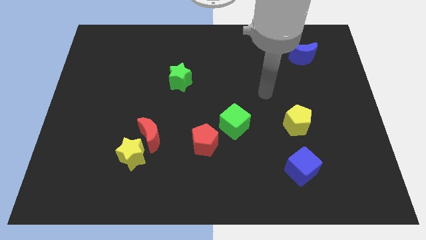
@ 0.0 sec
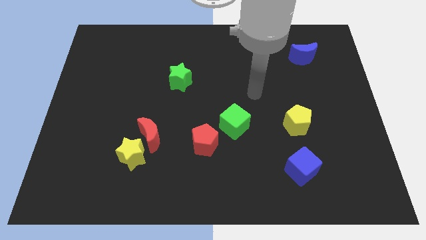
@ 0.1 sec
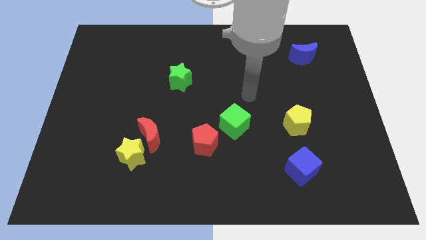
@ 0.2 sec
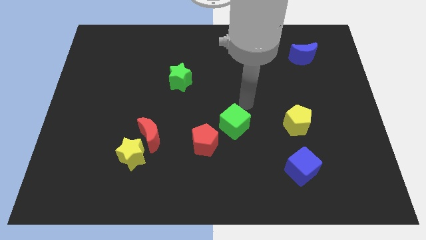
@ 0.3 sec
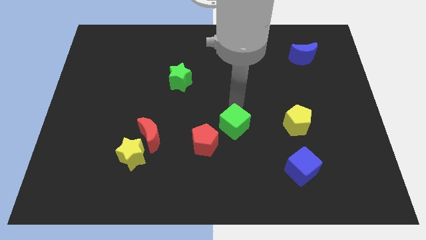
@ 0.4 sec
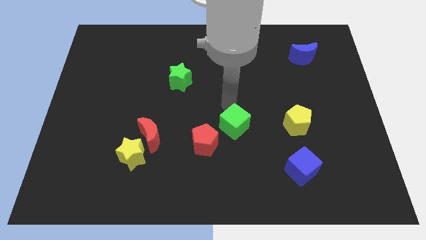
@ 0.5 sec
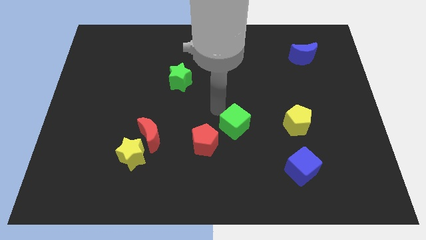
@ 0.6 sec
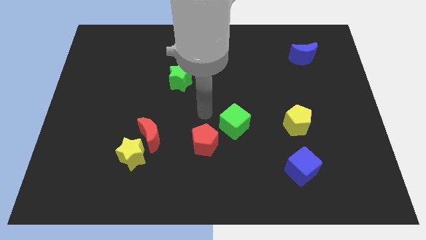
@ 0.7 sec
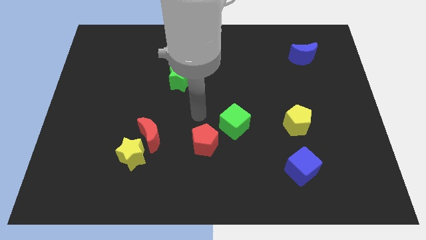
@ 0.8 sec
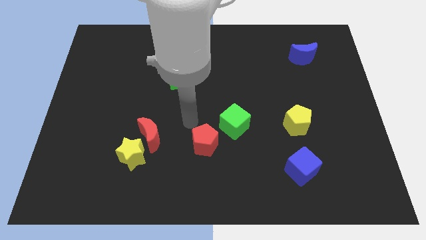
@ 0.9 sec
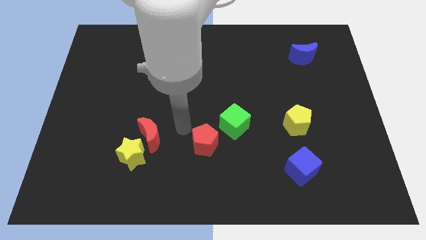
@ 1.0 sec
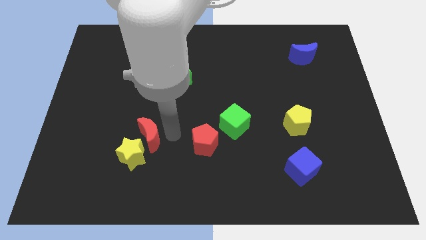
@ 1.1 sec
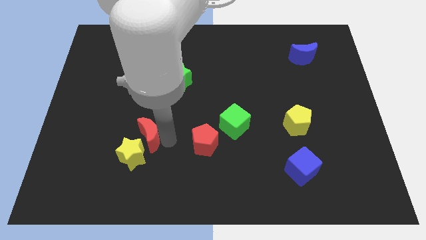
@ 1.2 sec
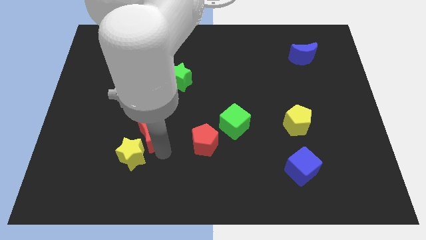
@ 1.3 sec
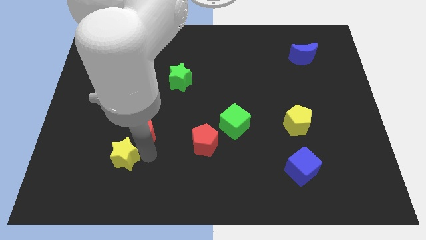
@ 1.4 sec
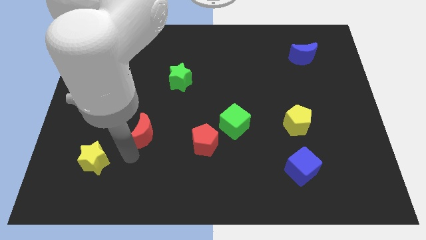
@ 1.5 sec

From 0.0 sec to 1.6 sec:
separate the red moon from the yellow star

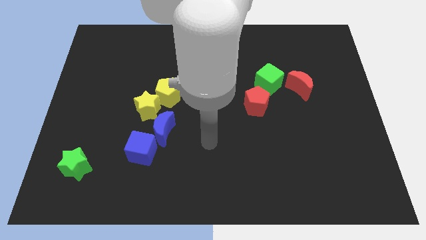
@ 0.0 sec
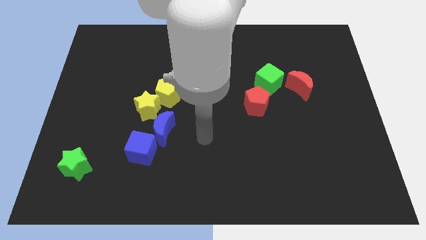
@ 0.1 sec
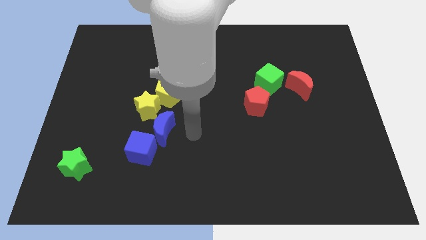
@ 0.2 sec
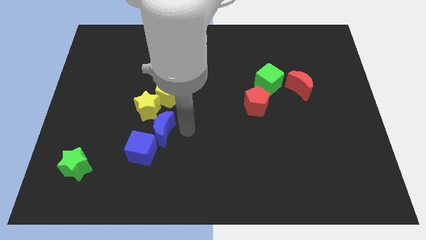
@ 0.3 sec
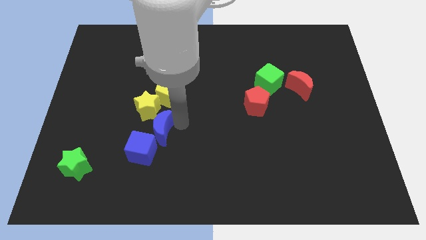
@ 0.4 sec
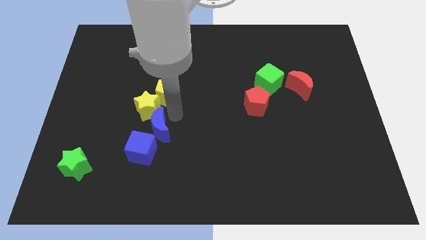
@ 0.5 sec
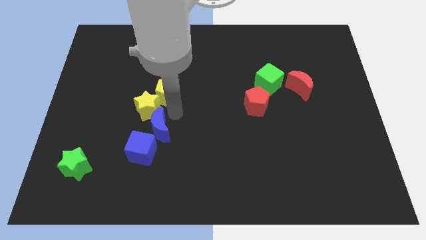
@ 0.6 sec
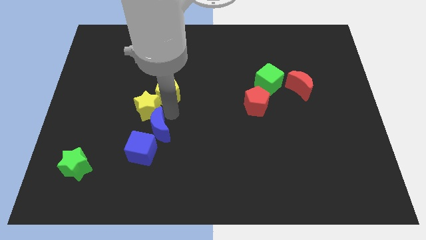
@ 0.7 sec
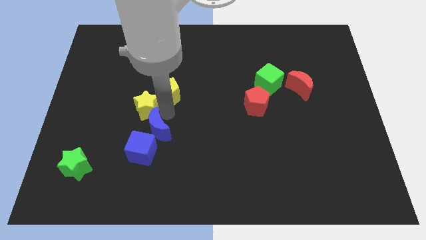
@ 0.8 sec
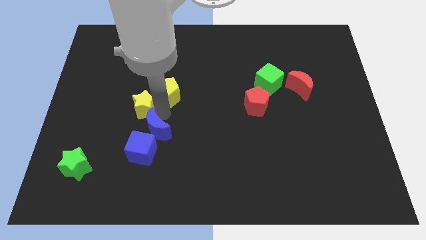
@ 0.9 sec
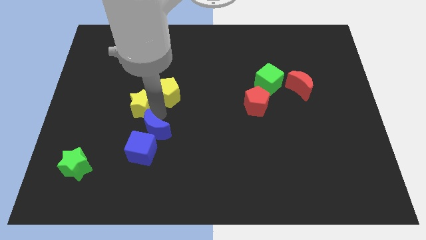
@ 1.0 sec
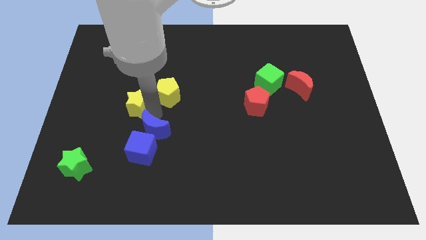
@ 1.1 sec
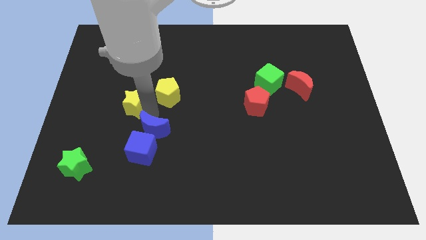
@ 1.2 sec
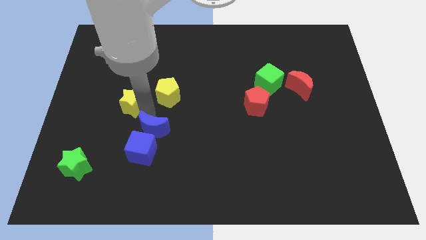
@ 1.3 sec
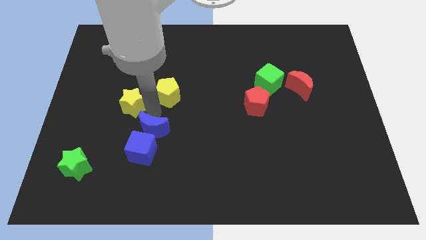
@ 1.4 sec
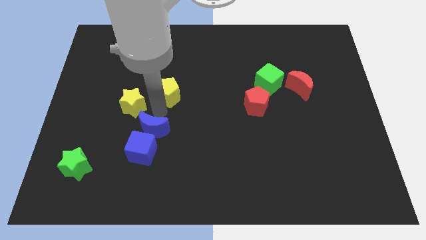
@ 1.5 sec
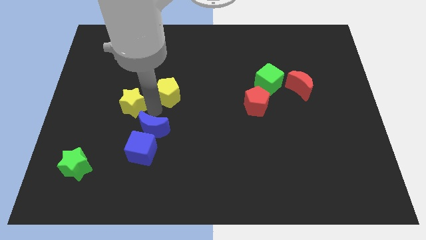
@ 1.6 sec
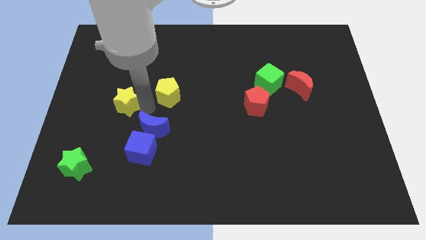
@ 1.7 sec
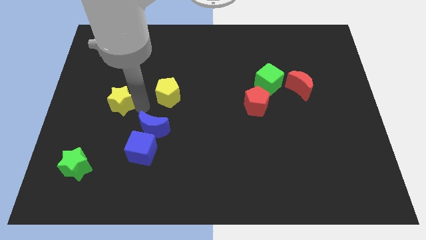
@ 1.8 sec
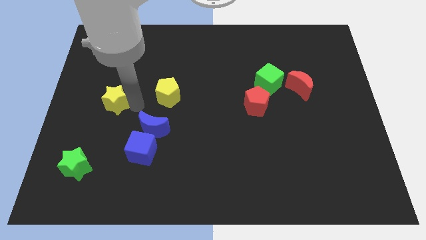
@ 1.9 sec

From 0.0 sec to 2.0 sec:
pull the yellow star apart from the yellow pentagon and blue moon

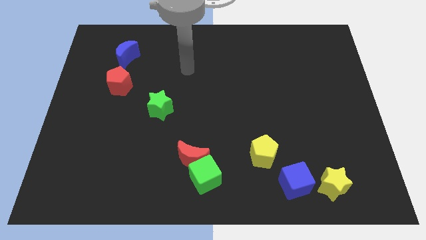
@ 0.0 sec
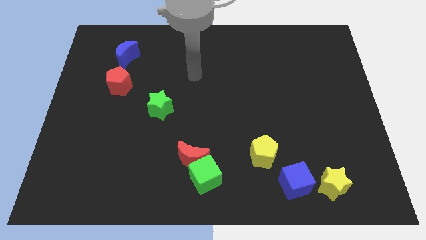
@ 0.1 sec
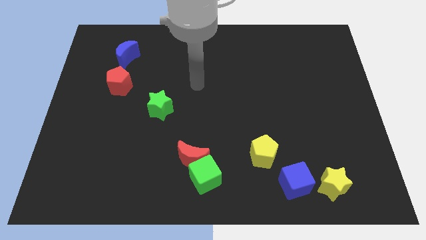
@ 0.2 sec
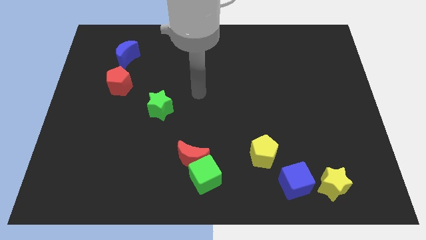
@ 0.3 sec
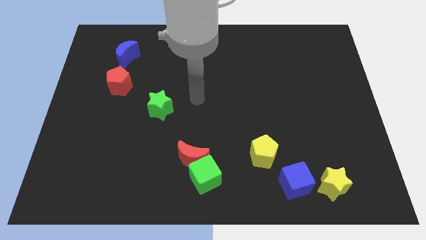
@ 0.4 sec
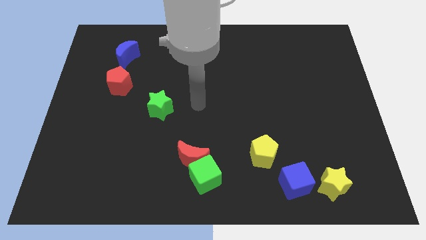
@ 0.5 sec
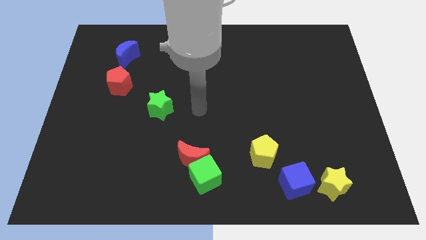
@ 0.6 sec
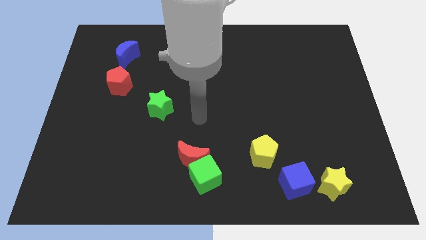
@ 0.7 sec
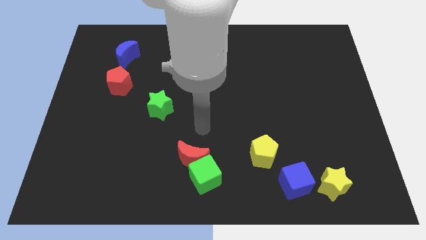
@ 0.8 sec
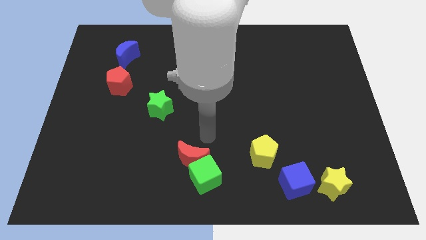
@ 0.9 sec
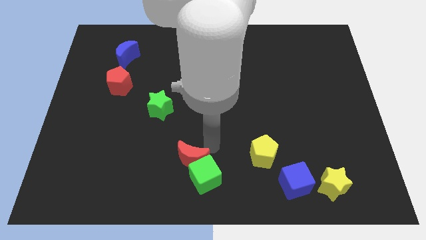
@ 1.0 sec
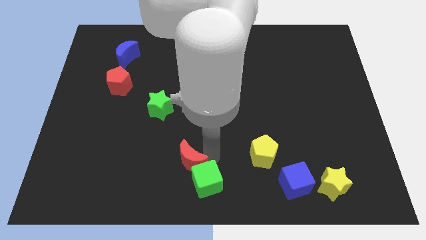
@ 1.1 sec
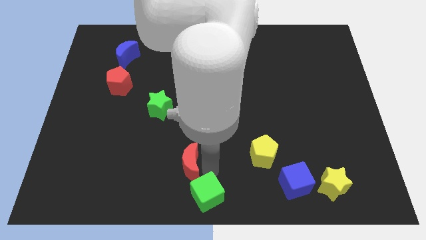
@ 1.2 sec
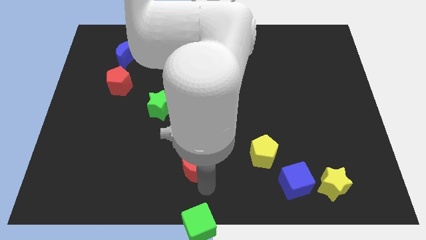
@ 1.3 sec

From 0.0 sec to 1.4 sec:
move the red moon away from the green cube

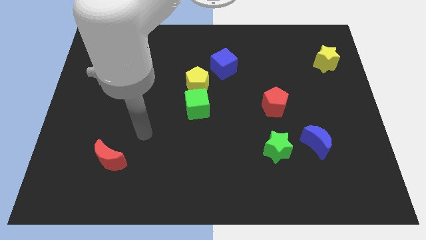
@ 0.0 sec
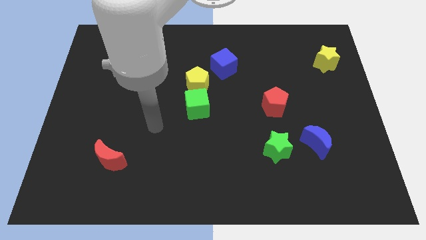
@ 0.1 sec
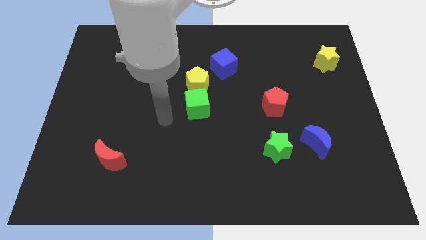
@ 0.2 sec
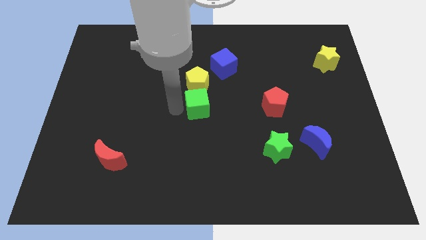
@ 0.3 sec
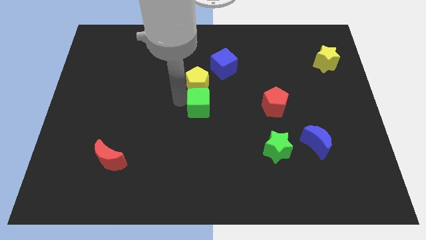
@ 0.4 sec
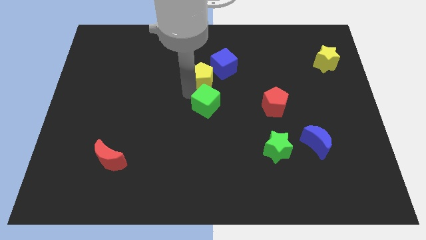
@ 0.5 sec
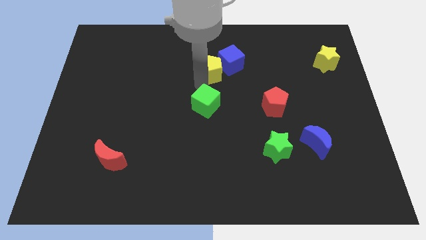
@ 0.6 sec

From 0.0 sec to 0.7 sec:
pull the green cube apart from the yellow pentagon

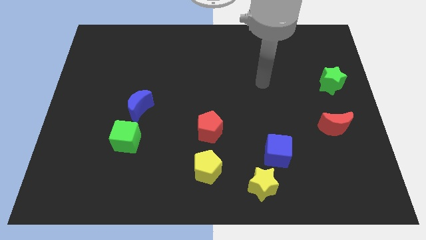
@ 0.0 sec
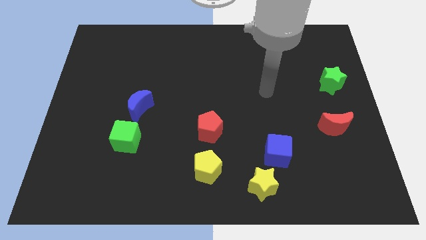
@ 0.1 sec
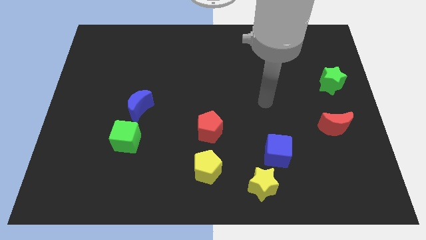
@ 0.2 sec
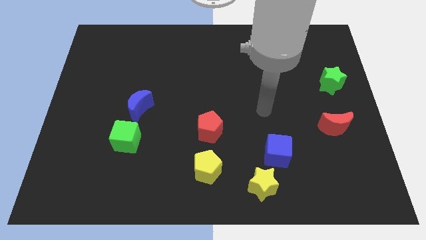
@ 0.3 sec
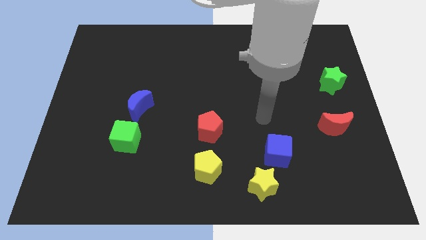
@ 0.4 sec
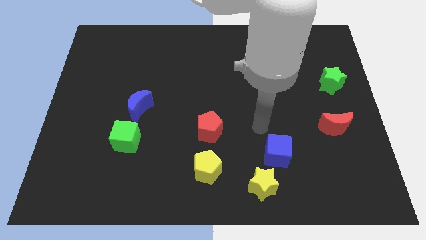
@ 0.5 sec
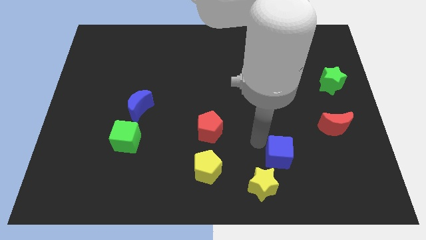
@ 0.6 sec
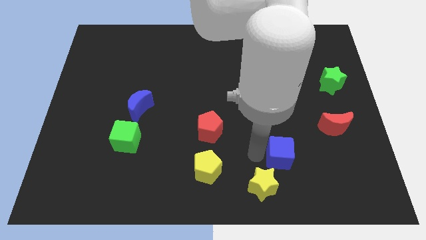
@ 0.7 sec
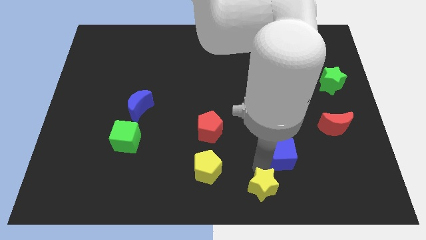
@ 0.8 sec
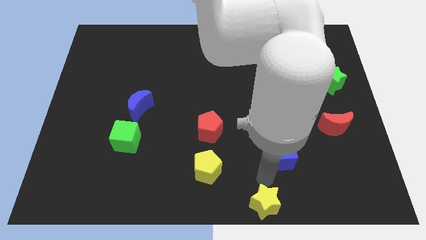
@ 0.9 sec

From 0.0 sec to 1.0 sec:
separate the blue cube from the yellow star

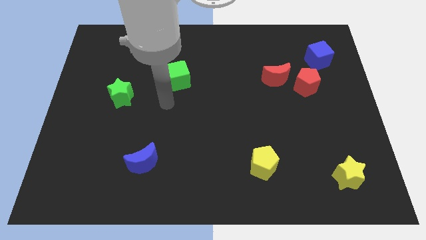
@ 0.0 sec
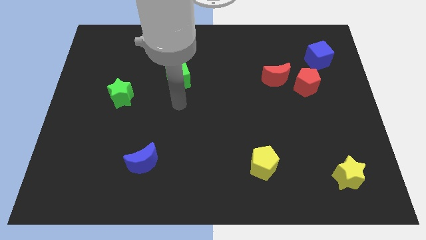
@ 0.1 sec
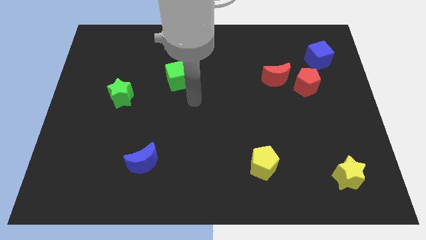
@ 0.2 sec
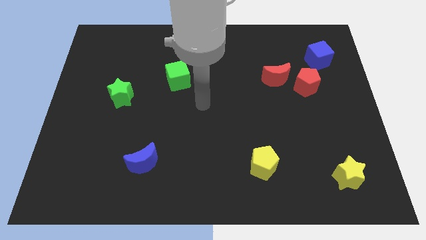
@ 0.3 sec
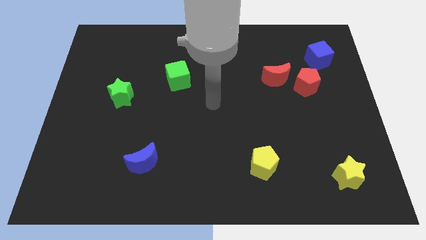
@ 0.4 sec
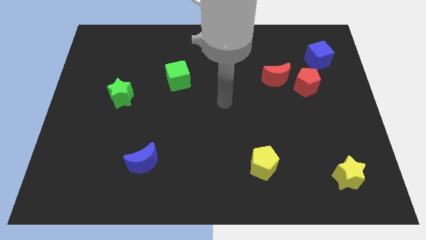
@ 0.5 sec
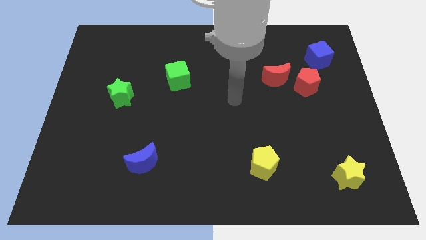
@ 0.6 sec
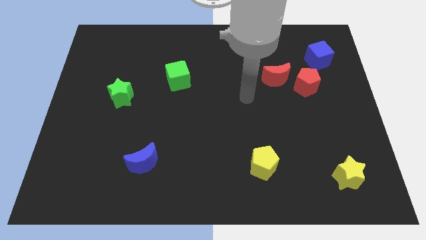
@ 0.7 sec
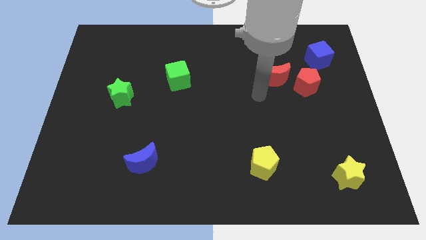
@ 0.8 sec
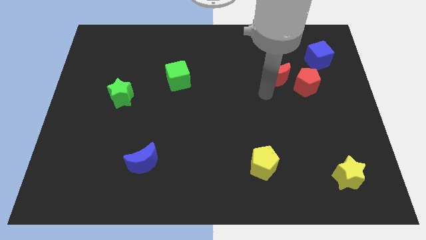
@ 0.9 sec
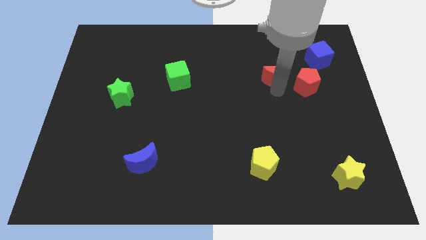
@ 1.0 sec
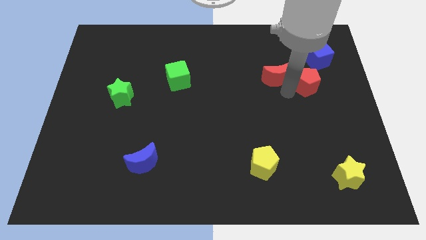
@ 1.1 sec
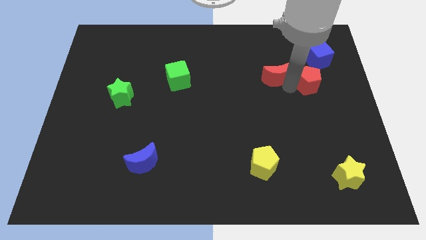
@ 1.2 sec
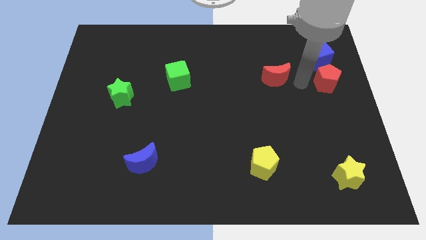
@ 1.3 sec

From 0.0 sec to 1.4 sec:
separate the red moon from the red pentagon

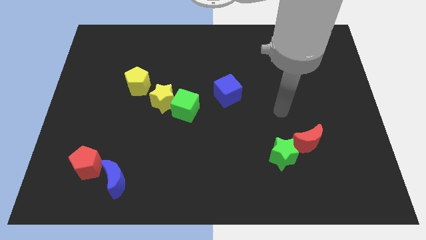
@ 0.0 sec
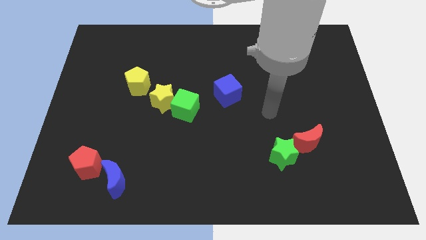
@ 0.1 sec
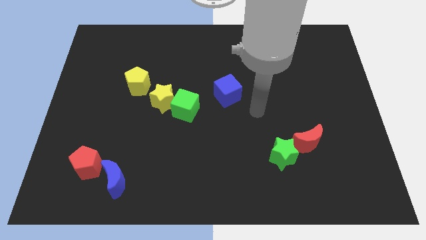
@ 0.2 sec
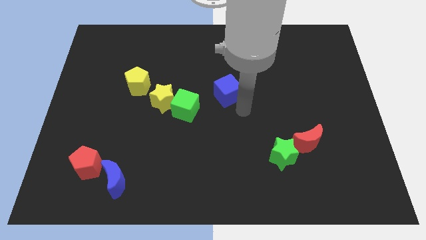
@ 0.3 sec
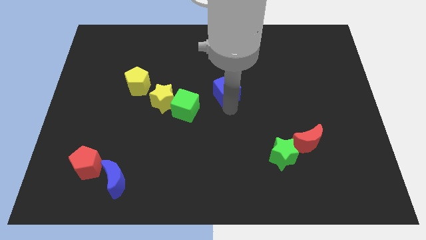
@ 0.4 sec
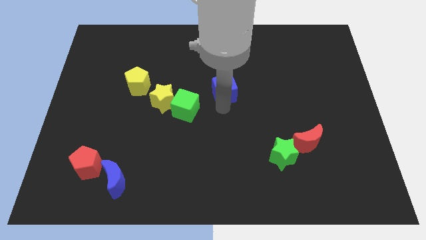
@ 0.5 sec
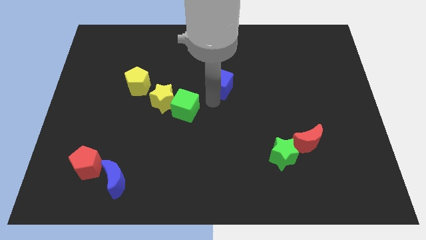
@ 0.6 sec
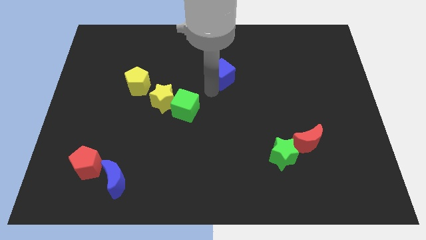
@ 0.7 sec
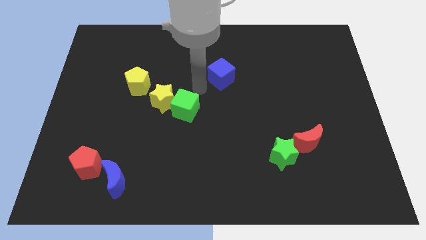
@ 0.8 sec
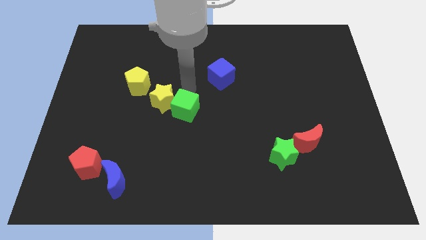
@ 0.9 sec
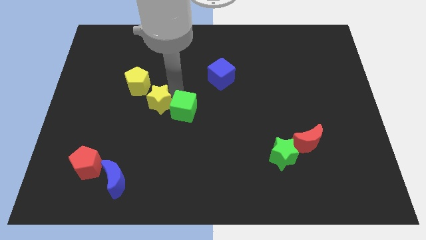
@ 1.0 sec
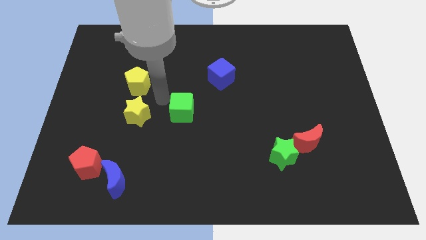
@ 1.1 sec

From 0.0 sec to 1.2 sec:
pull the green cube apart from the yellow star

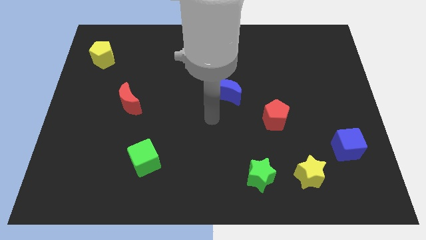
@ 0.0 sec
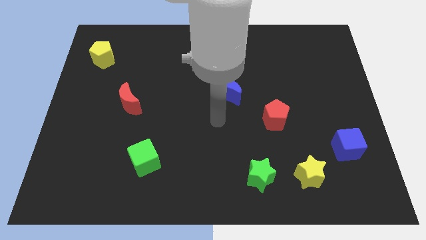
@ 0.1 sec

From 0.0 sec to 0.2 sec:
move the green star away from the yellow star
